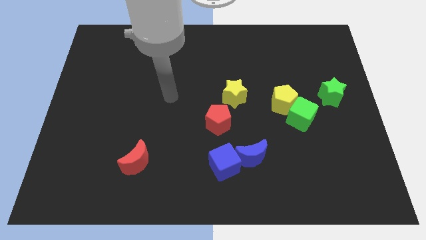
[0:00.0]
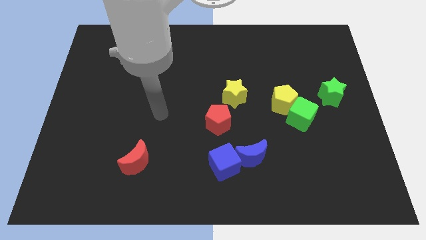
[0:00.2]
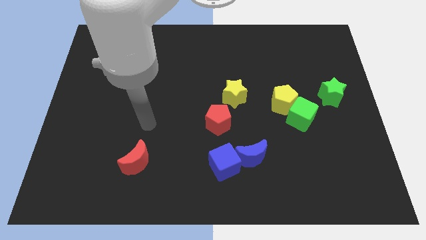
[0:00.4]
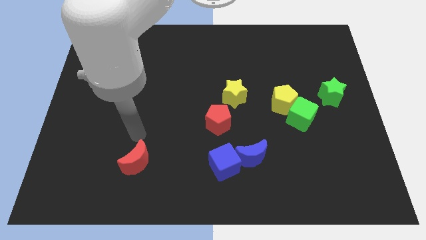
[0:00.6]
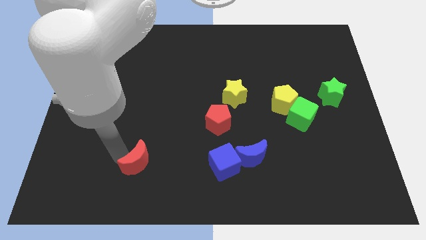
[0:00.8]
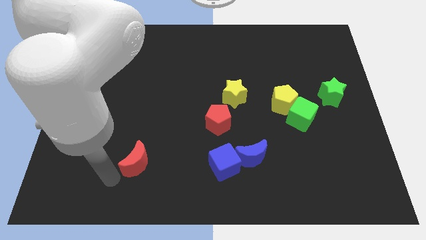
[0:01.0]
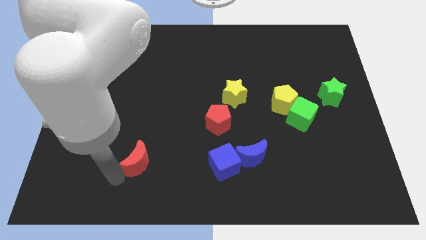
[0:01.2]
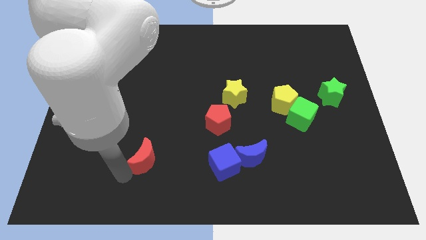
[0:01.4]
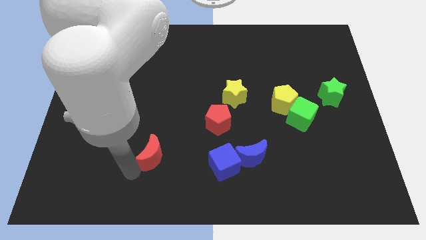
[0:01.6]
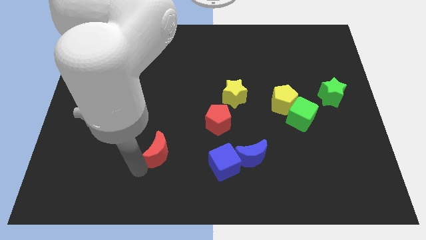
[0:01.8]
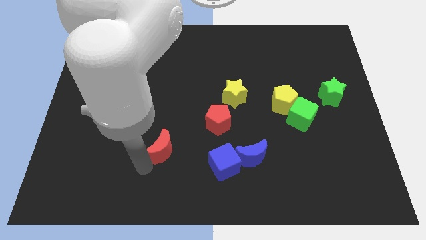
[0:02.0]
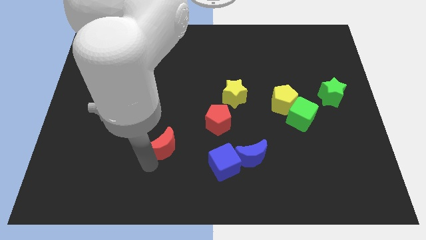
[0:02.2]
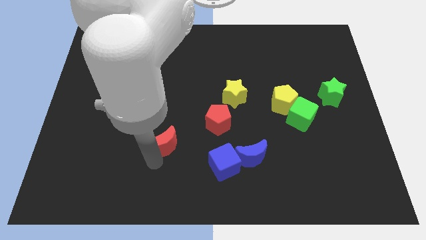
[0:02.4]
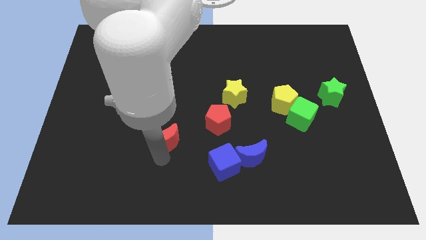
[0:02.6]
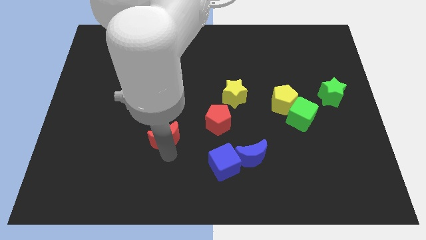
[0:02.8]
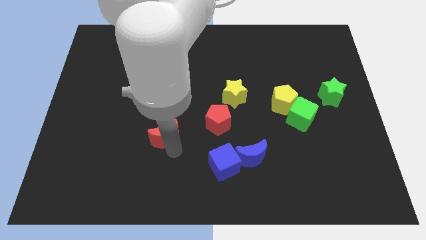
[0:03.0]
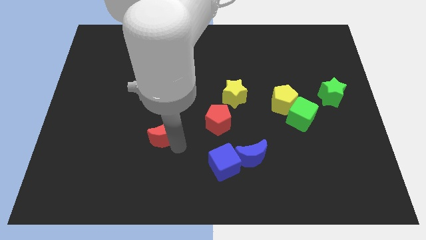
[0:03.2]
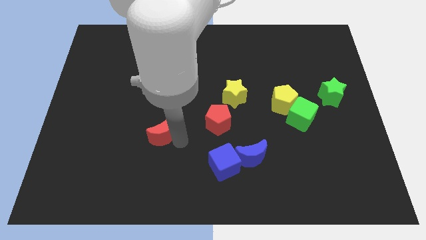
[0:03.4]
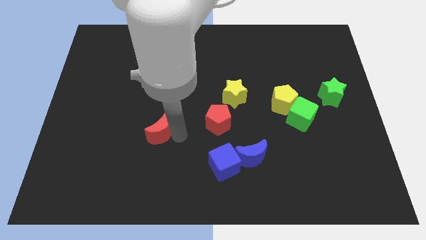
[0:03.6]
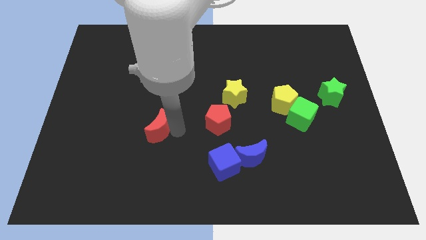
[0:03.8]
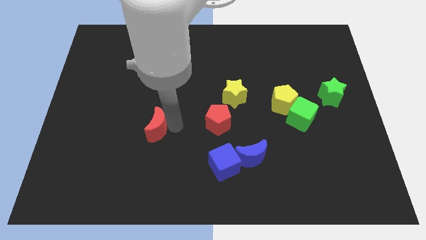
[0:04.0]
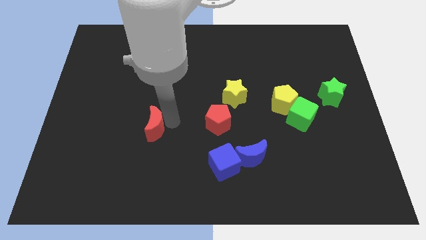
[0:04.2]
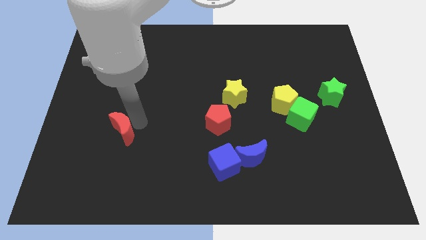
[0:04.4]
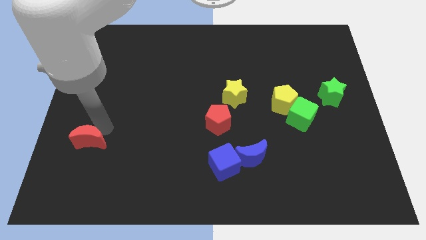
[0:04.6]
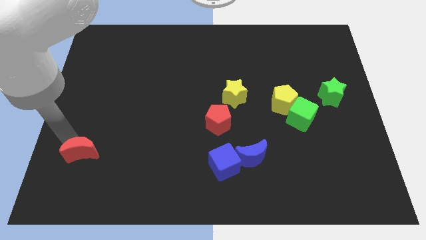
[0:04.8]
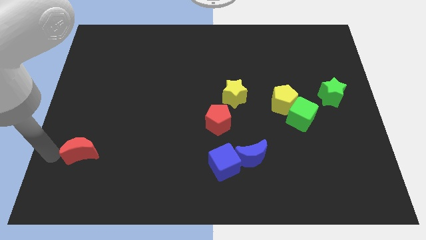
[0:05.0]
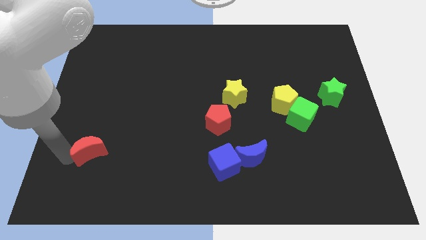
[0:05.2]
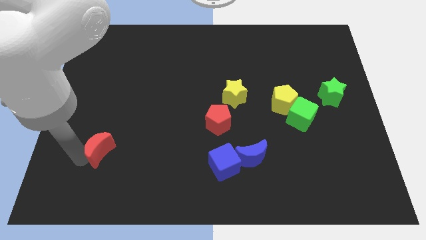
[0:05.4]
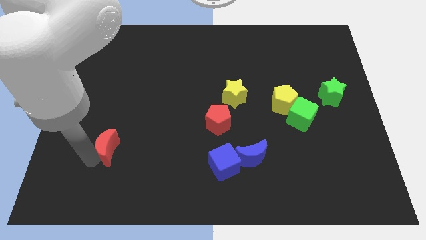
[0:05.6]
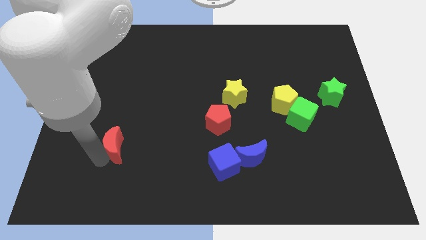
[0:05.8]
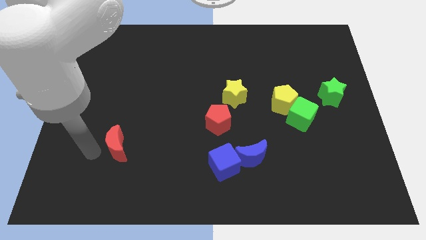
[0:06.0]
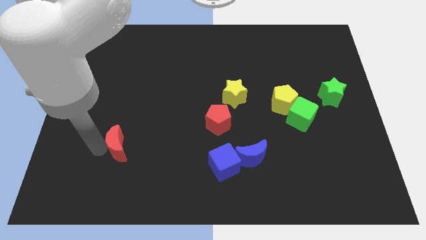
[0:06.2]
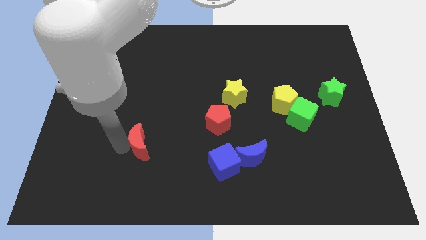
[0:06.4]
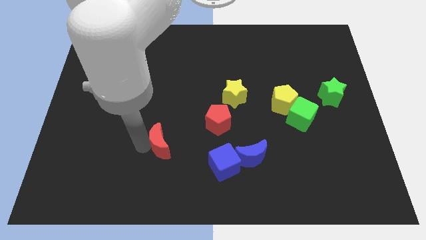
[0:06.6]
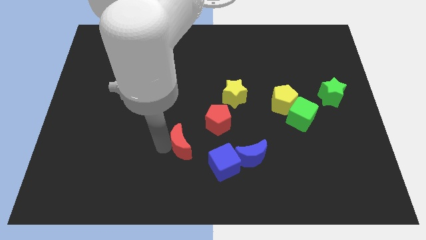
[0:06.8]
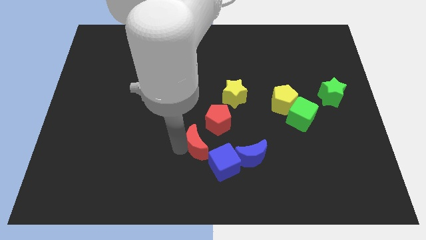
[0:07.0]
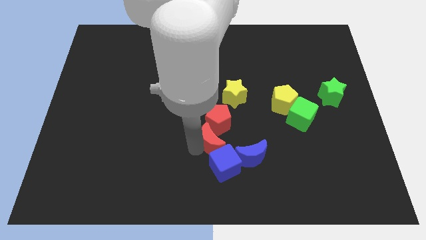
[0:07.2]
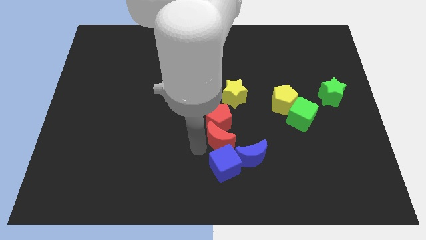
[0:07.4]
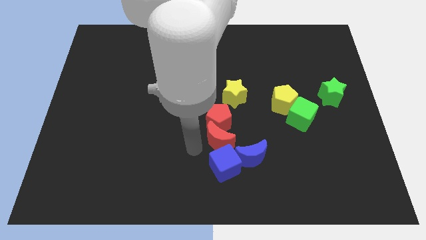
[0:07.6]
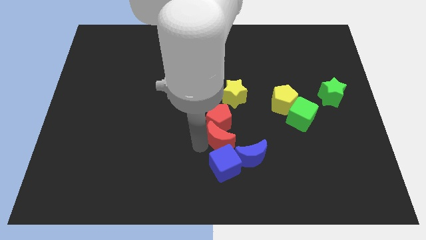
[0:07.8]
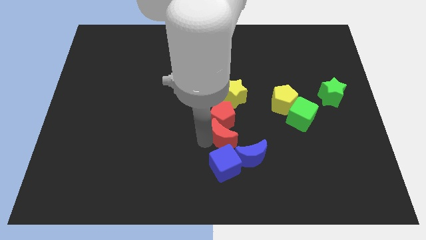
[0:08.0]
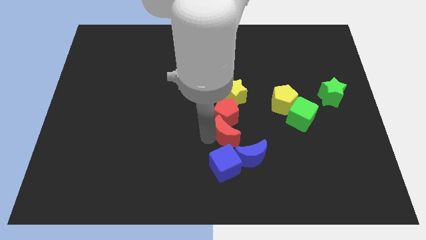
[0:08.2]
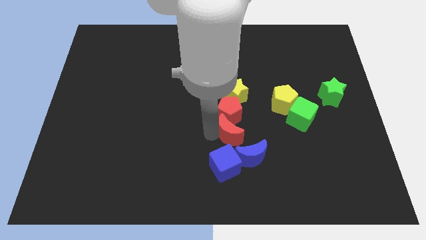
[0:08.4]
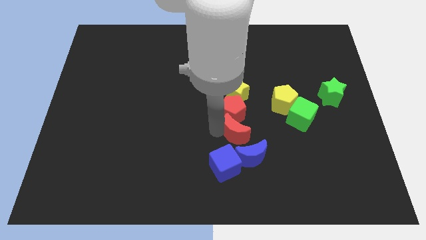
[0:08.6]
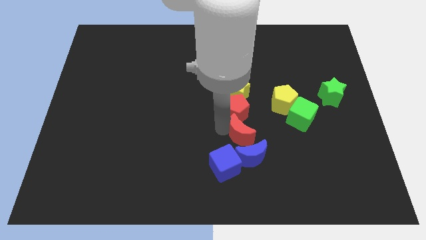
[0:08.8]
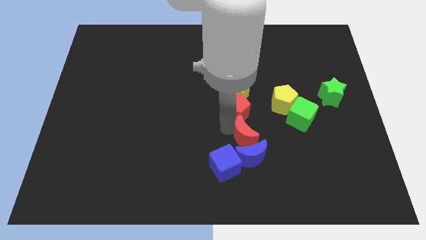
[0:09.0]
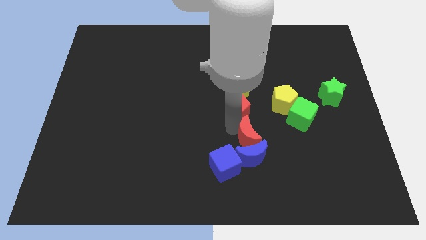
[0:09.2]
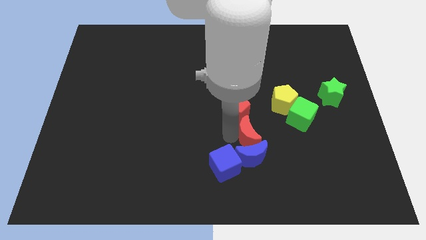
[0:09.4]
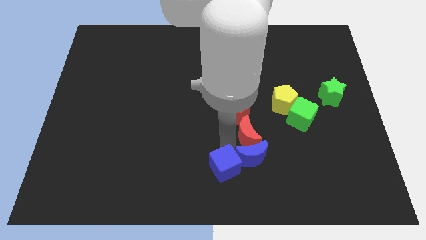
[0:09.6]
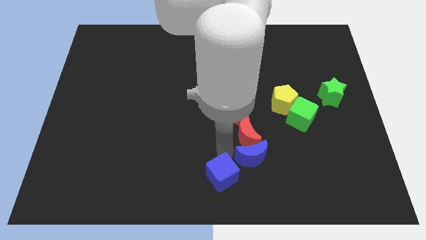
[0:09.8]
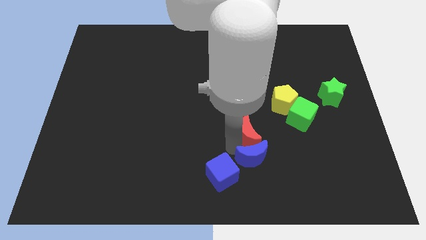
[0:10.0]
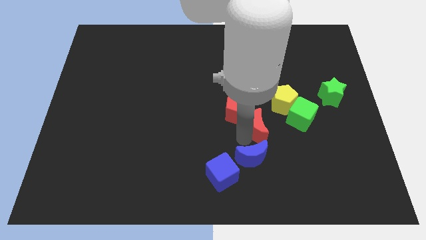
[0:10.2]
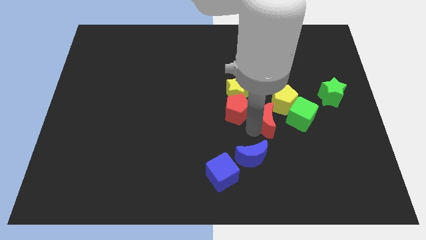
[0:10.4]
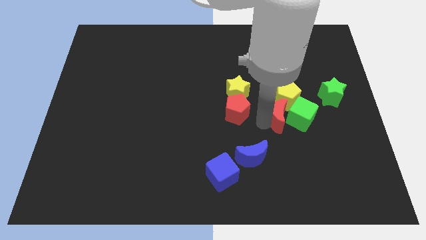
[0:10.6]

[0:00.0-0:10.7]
push the red moon close to the green cube
